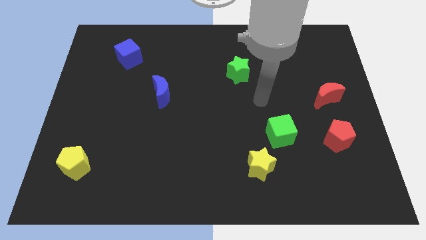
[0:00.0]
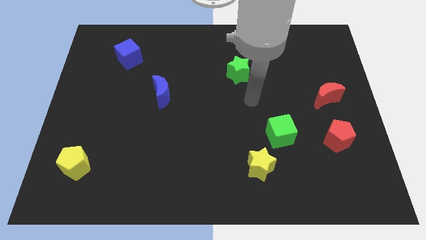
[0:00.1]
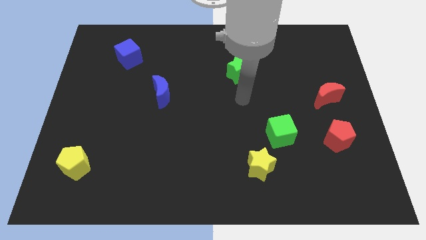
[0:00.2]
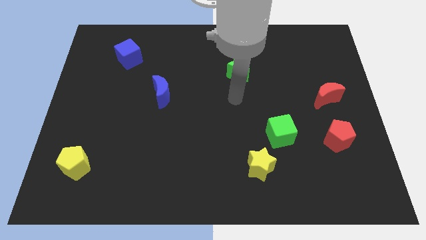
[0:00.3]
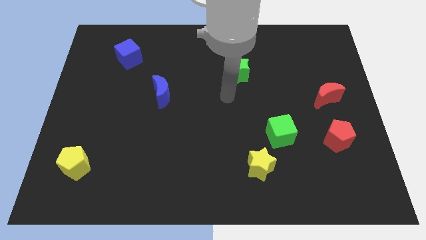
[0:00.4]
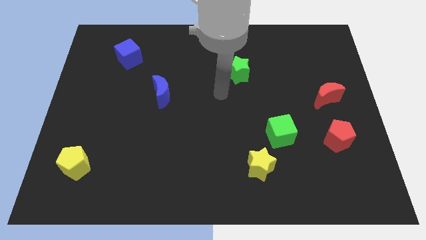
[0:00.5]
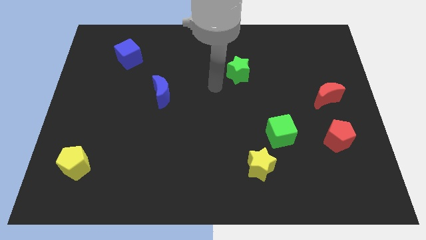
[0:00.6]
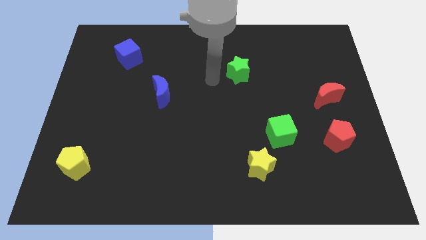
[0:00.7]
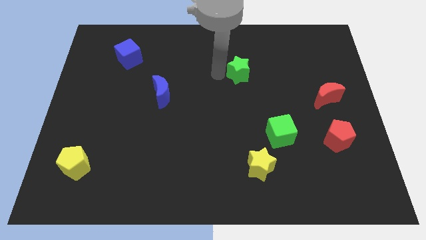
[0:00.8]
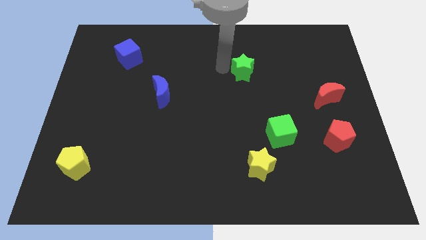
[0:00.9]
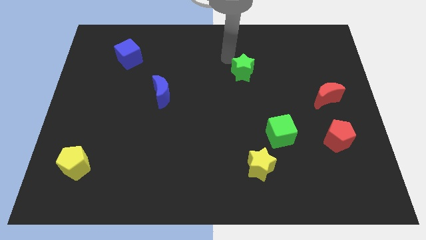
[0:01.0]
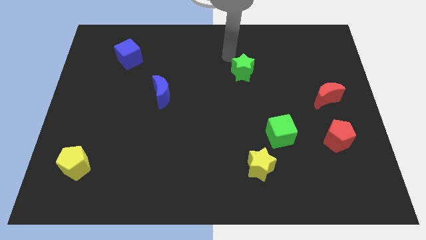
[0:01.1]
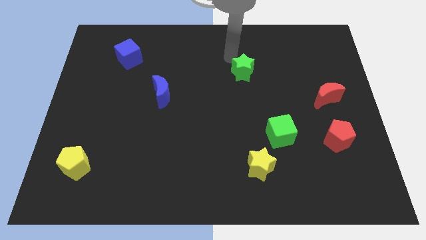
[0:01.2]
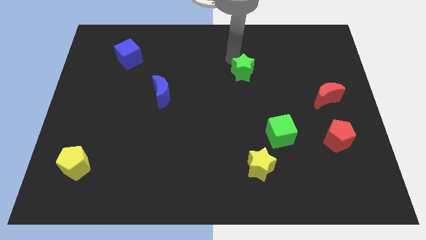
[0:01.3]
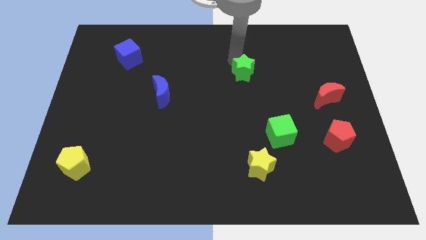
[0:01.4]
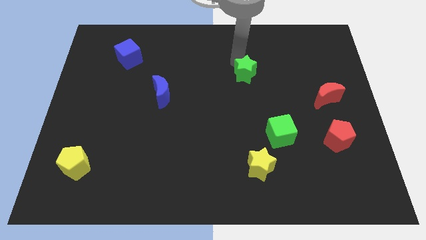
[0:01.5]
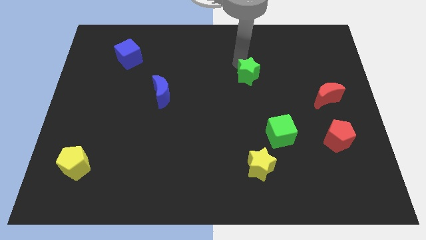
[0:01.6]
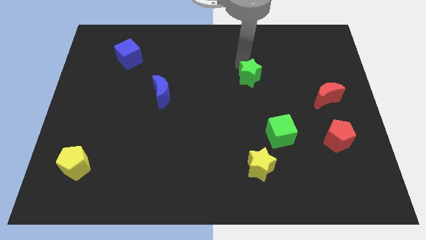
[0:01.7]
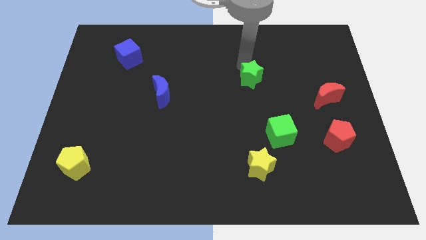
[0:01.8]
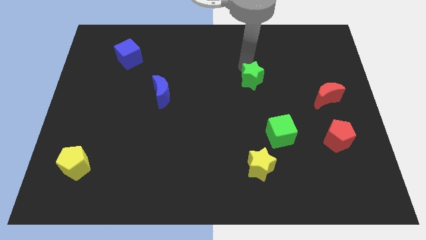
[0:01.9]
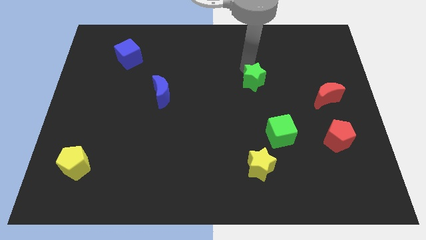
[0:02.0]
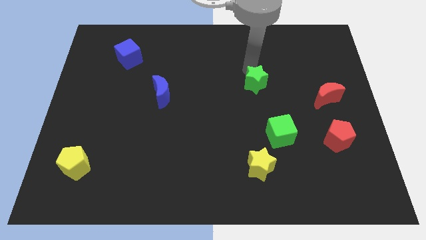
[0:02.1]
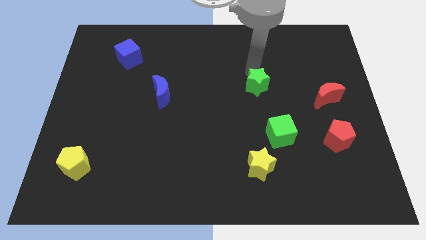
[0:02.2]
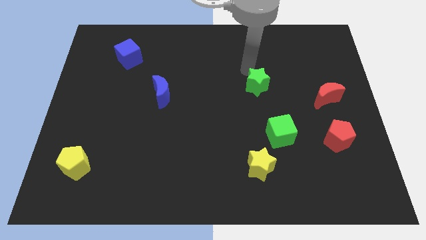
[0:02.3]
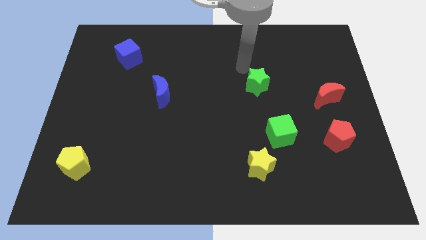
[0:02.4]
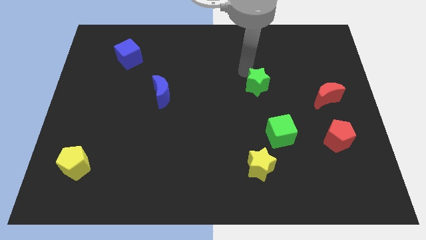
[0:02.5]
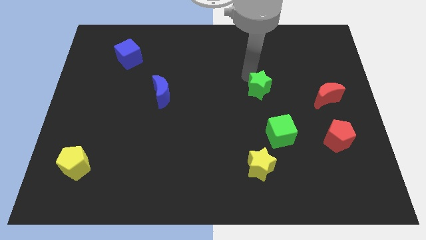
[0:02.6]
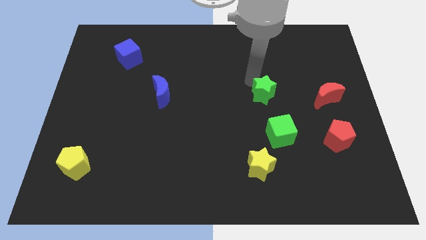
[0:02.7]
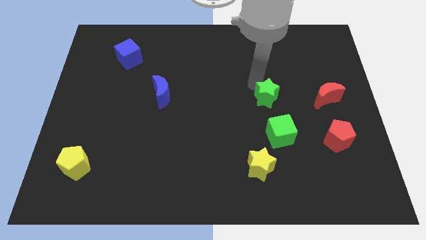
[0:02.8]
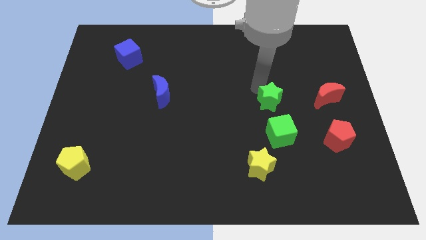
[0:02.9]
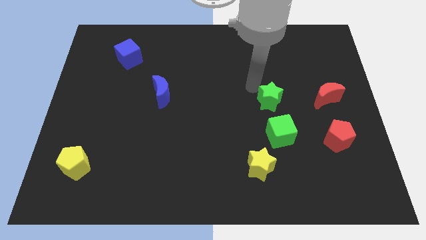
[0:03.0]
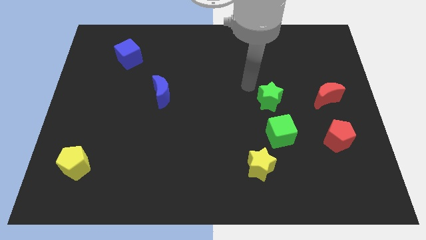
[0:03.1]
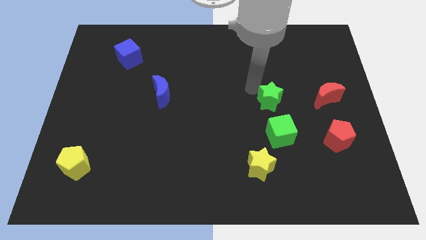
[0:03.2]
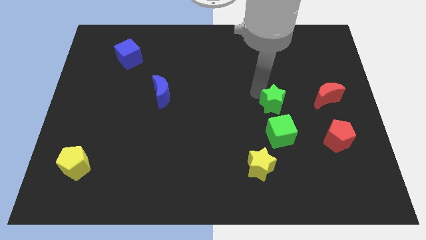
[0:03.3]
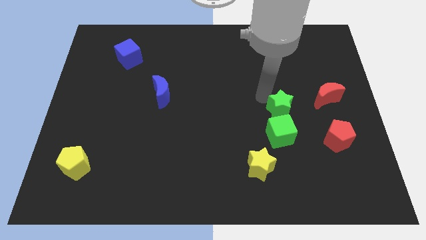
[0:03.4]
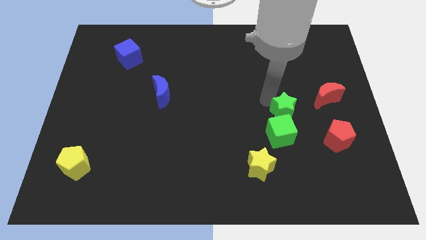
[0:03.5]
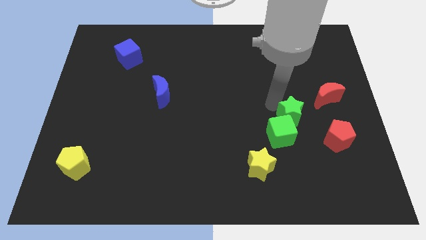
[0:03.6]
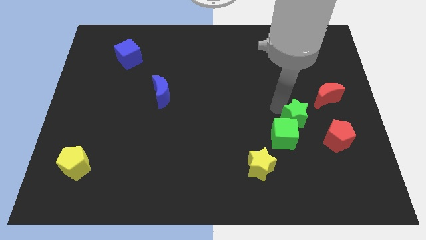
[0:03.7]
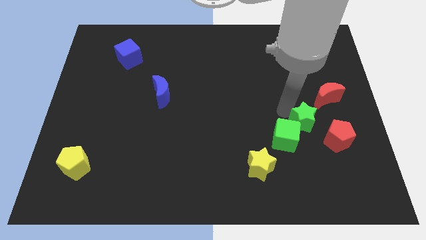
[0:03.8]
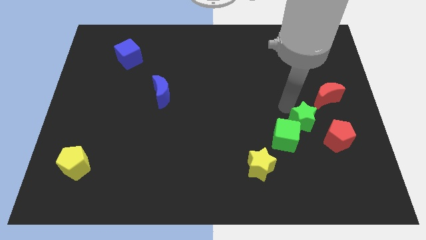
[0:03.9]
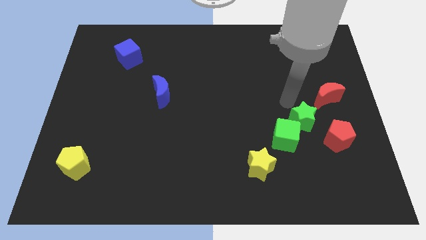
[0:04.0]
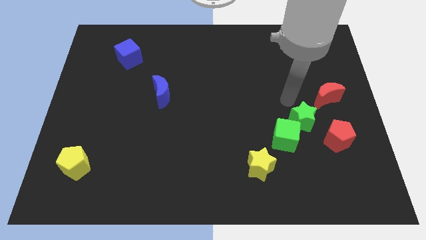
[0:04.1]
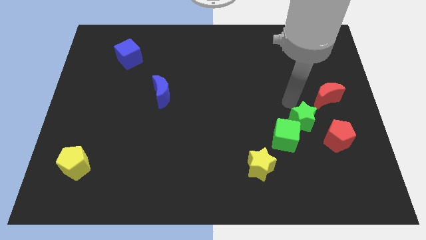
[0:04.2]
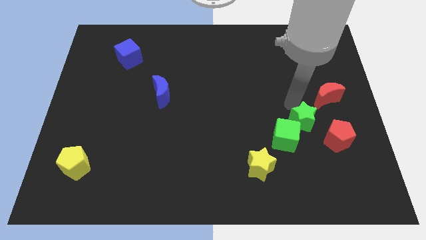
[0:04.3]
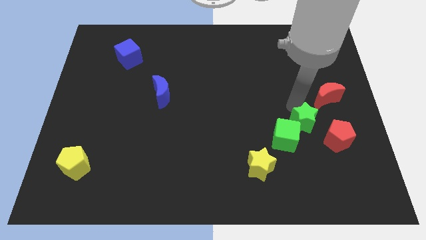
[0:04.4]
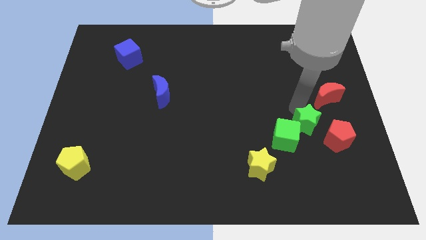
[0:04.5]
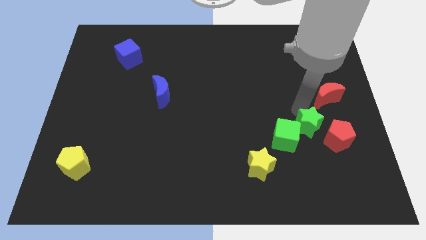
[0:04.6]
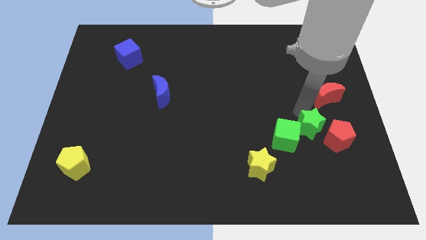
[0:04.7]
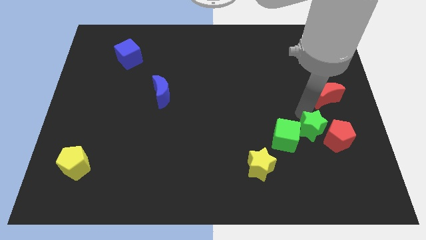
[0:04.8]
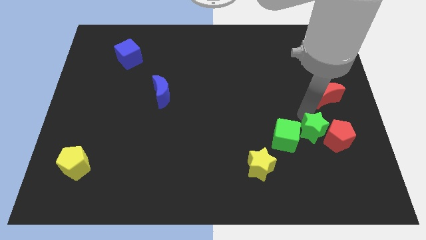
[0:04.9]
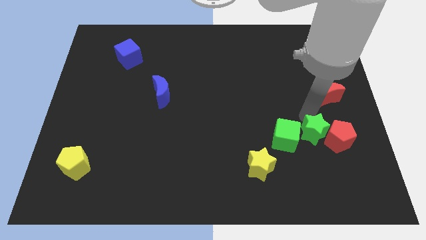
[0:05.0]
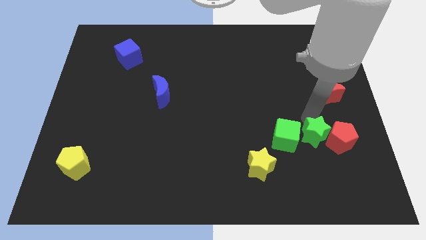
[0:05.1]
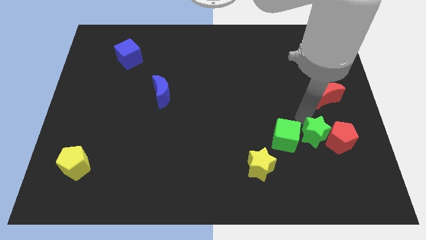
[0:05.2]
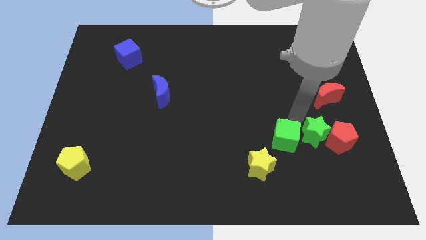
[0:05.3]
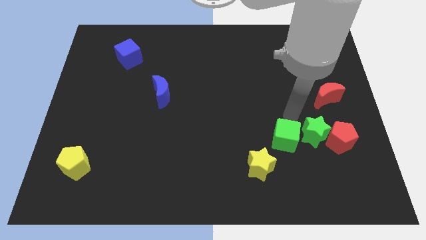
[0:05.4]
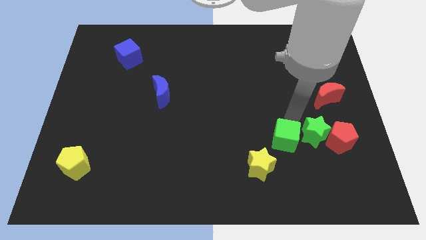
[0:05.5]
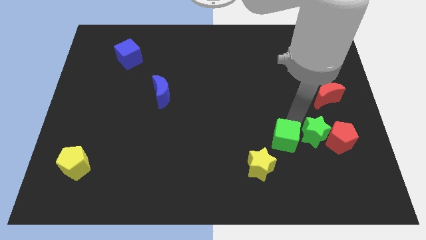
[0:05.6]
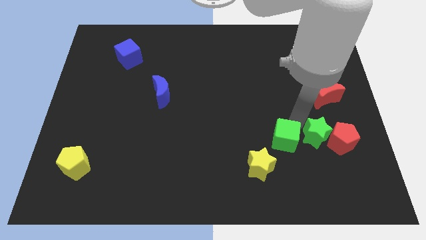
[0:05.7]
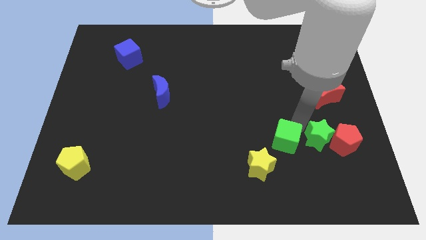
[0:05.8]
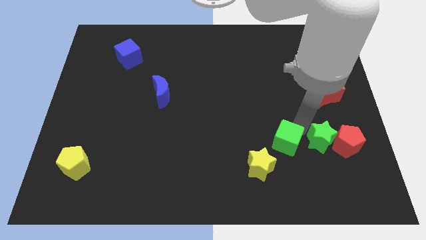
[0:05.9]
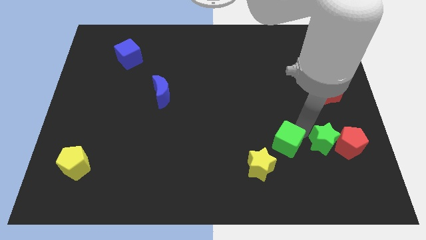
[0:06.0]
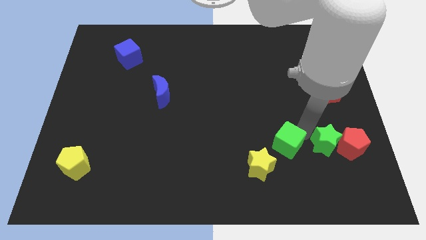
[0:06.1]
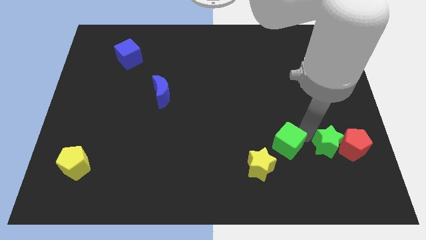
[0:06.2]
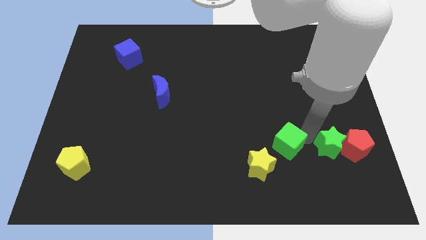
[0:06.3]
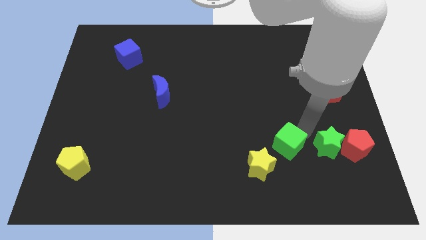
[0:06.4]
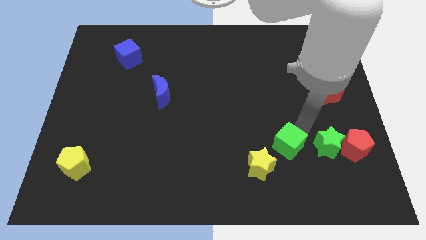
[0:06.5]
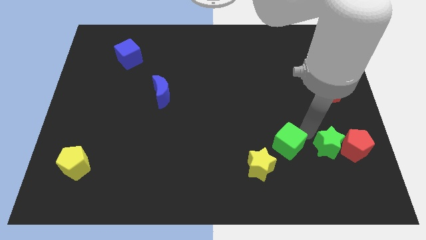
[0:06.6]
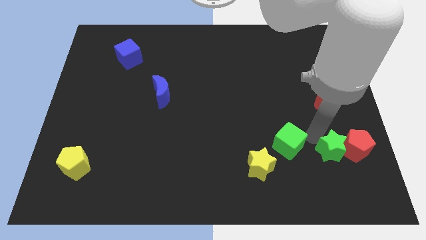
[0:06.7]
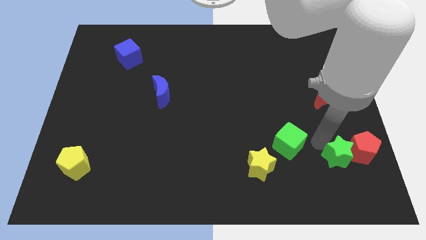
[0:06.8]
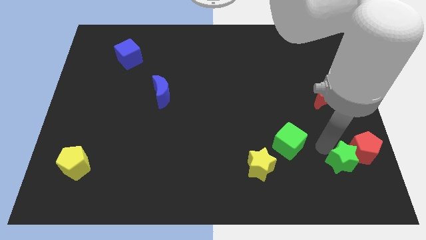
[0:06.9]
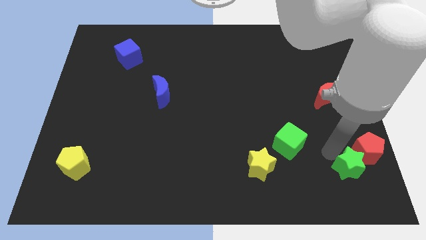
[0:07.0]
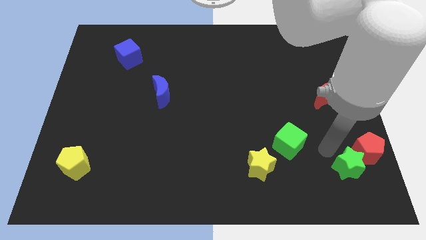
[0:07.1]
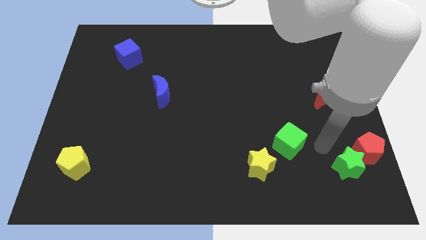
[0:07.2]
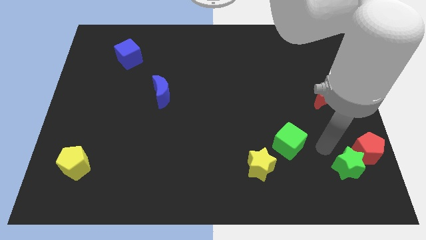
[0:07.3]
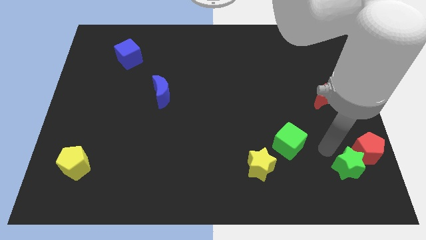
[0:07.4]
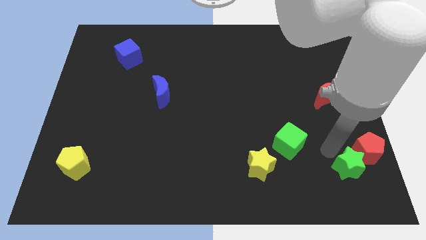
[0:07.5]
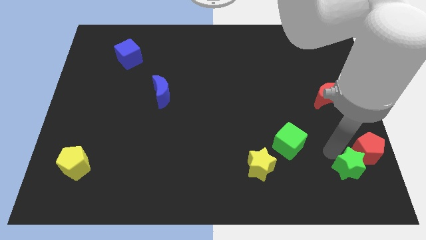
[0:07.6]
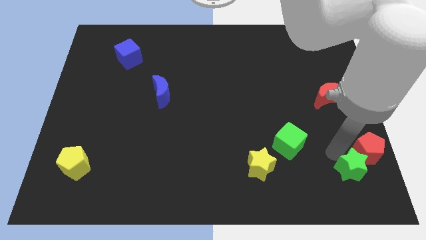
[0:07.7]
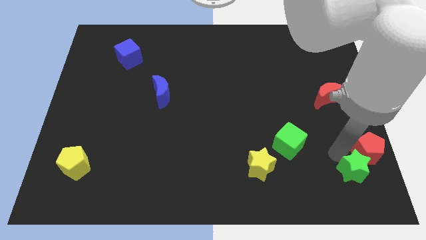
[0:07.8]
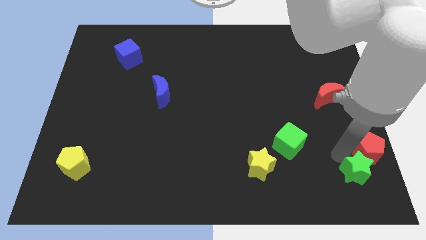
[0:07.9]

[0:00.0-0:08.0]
put the green star to the bottom right corner
